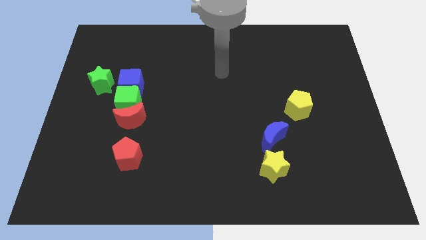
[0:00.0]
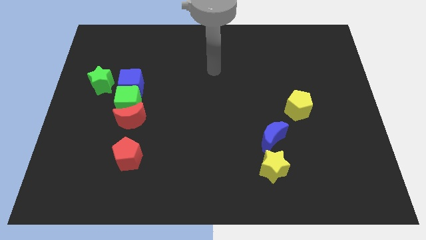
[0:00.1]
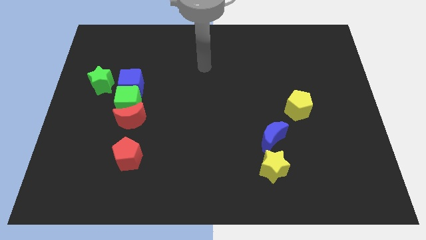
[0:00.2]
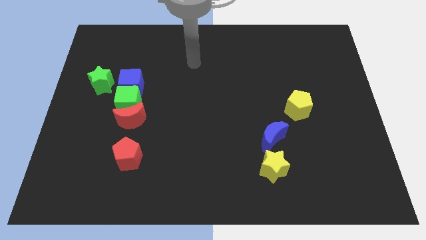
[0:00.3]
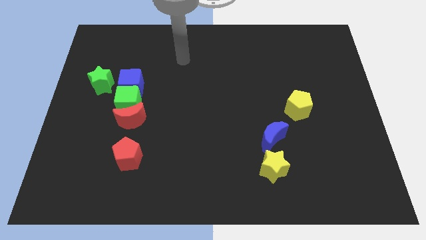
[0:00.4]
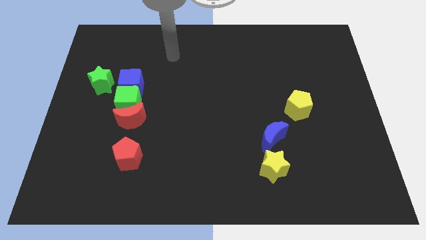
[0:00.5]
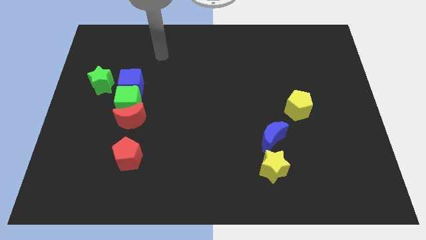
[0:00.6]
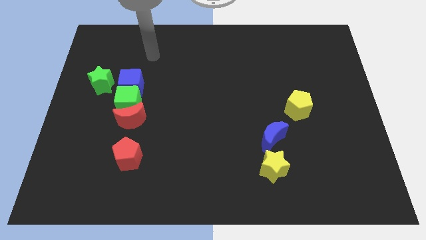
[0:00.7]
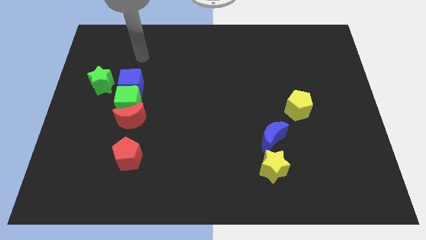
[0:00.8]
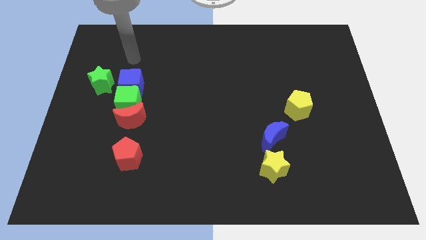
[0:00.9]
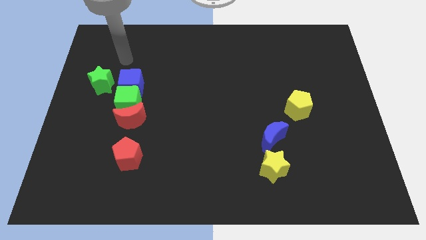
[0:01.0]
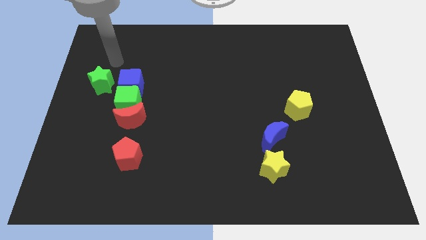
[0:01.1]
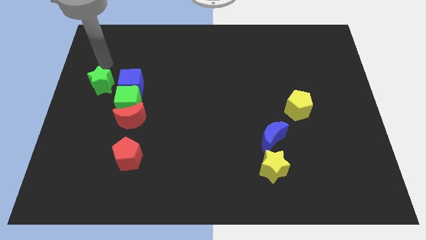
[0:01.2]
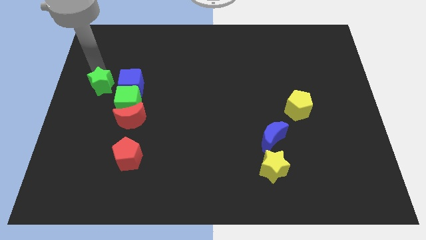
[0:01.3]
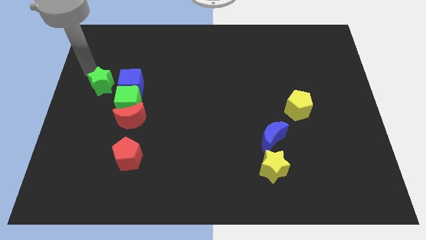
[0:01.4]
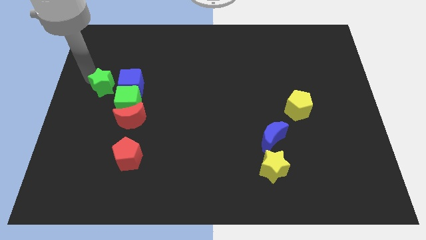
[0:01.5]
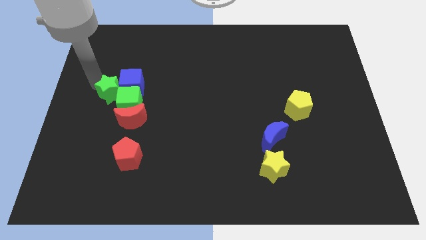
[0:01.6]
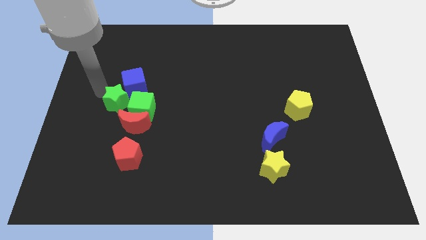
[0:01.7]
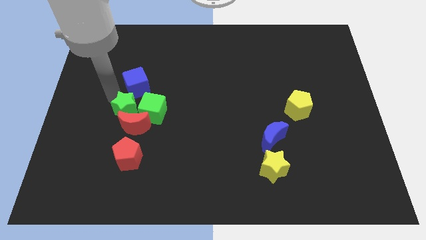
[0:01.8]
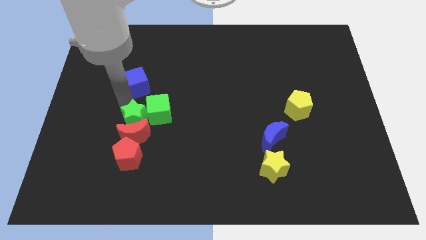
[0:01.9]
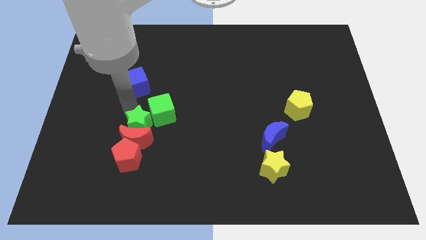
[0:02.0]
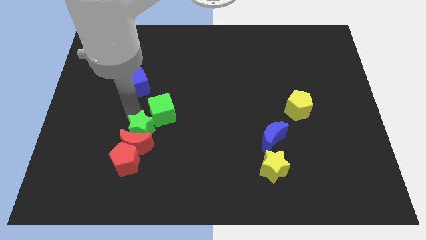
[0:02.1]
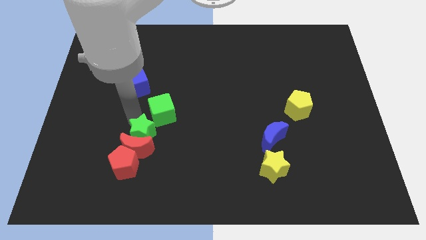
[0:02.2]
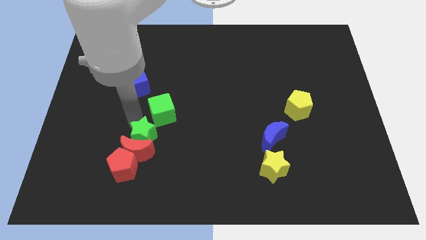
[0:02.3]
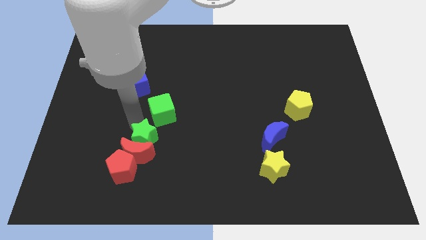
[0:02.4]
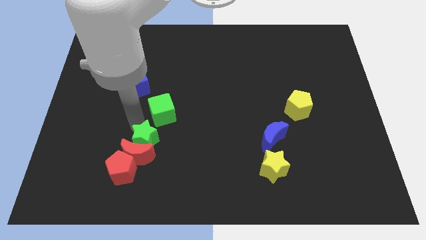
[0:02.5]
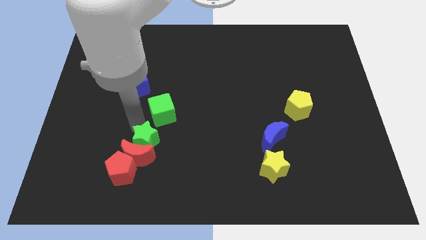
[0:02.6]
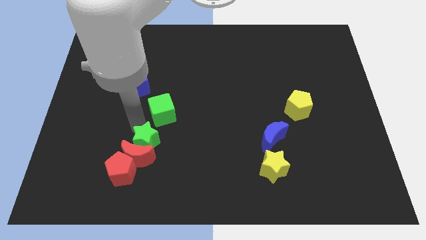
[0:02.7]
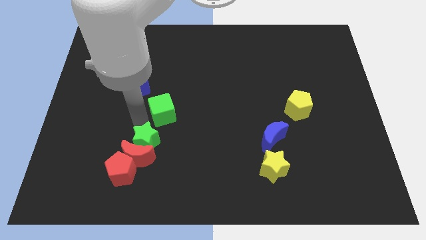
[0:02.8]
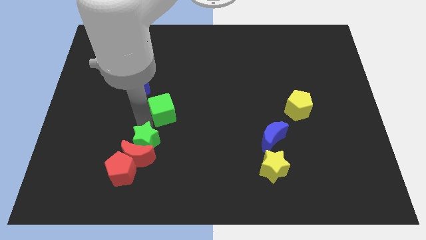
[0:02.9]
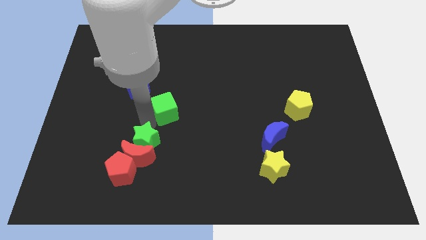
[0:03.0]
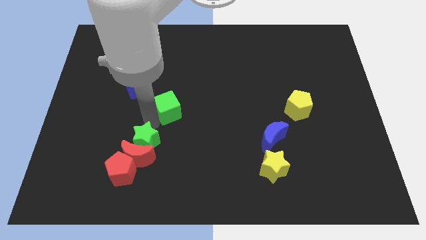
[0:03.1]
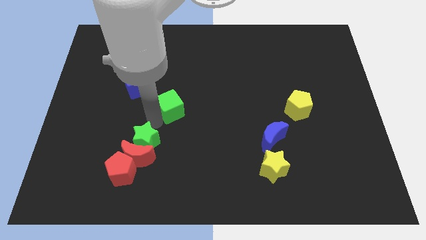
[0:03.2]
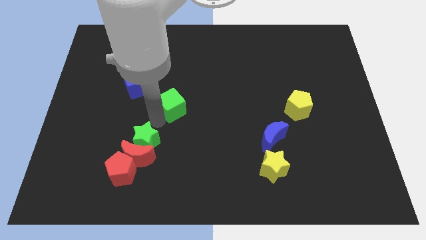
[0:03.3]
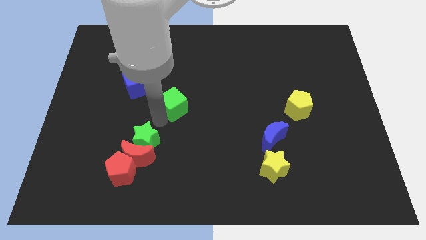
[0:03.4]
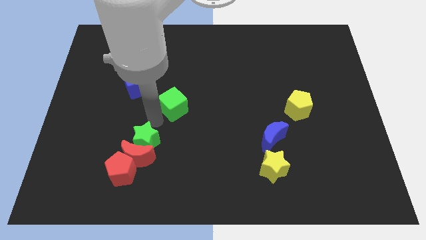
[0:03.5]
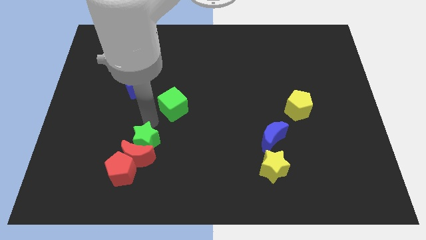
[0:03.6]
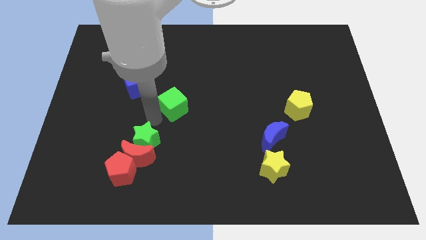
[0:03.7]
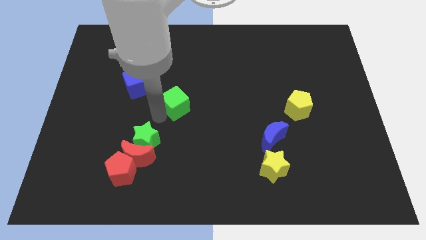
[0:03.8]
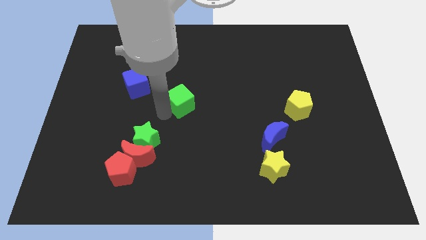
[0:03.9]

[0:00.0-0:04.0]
separate the green cube from the clump

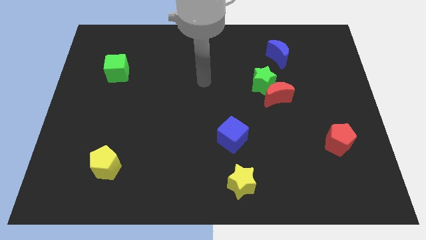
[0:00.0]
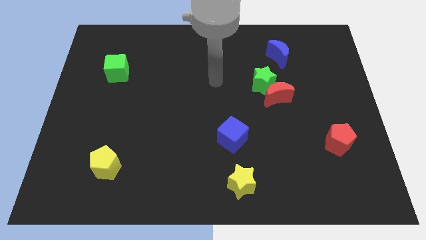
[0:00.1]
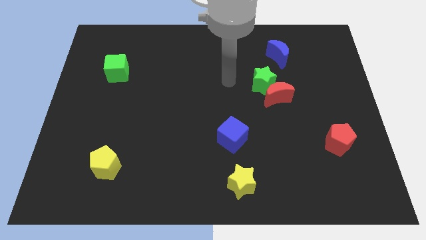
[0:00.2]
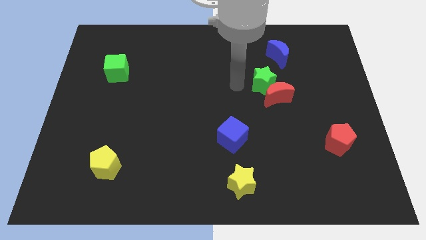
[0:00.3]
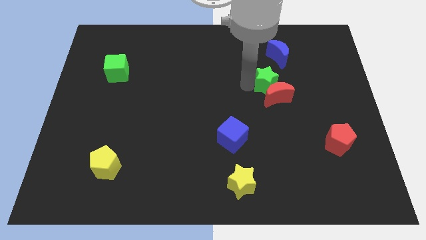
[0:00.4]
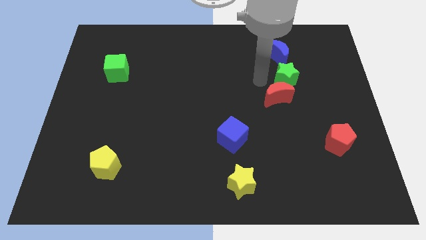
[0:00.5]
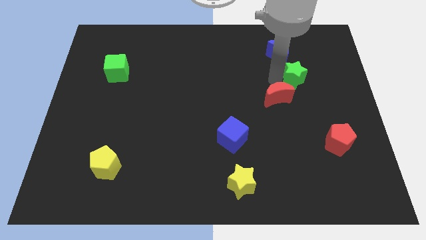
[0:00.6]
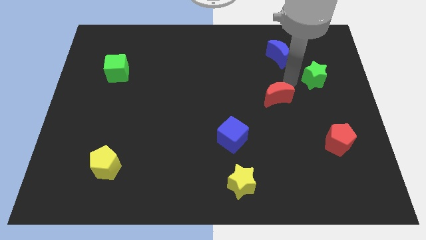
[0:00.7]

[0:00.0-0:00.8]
move the red moon away from the green star

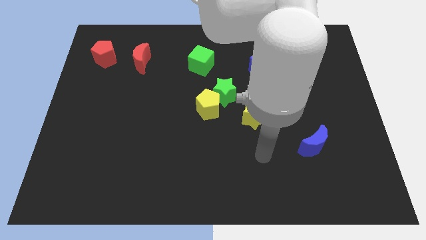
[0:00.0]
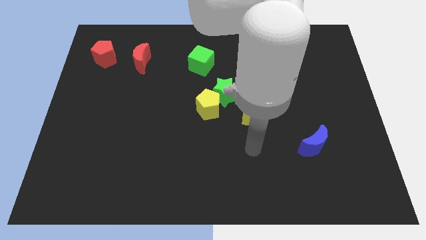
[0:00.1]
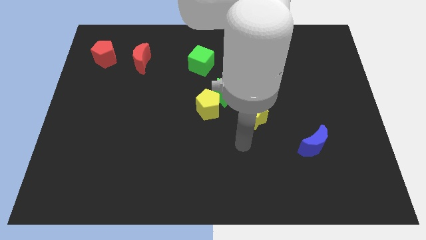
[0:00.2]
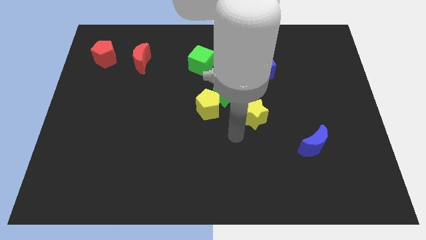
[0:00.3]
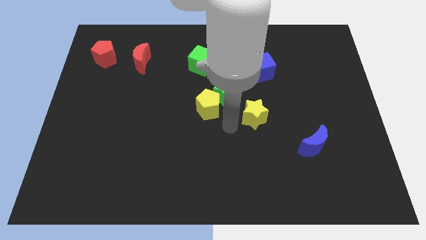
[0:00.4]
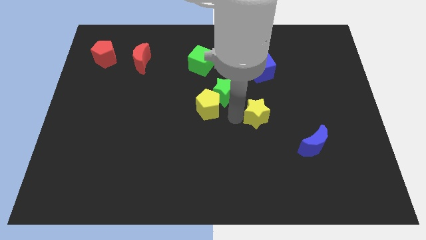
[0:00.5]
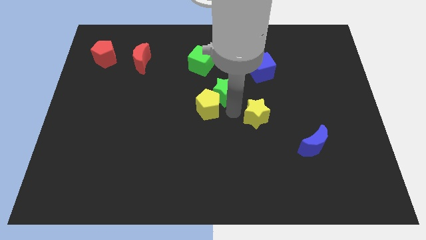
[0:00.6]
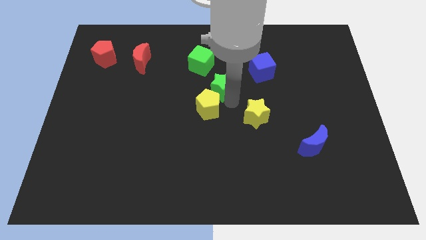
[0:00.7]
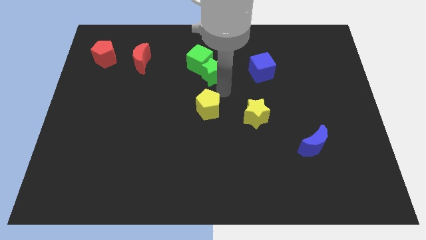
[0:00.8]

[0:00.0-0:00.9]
move the yellow pentagon away from the green star

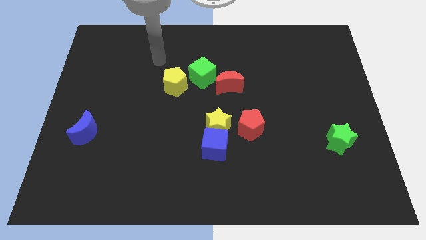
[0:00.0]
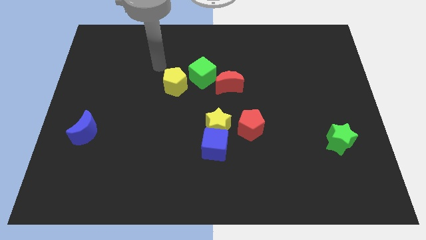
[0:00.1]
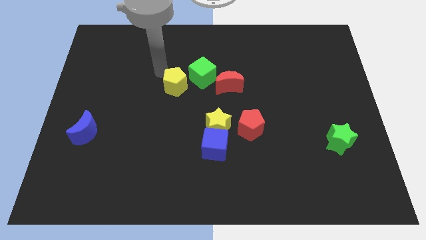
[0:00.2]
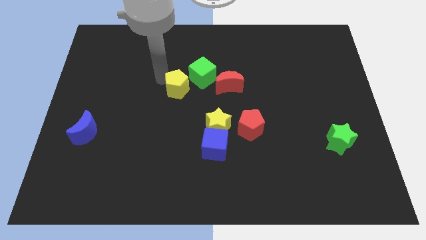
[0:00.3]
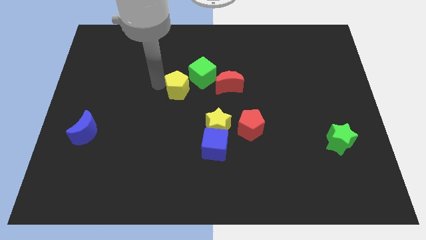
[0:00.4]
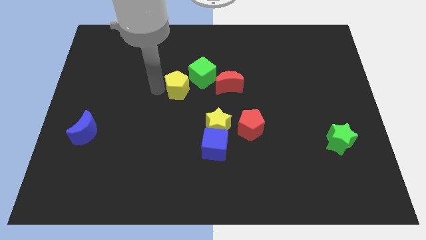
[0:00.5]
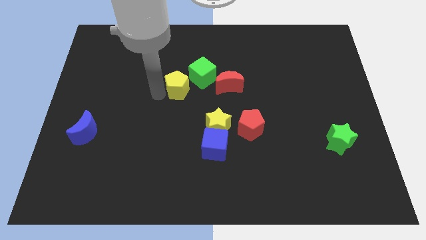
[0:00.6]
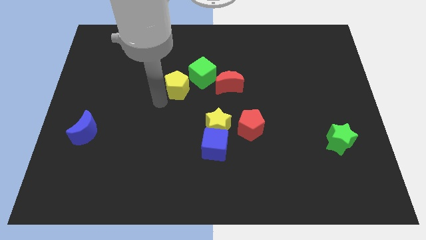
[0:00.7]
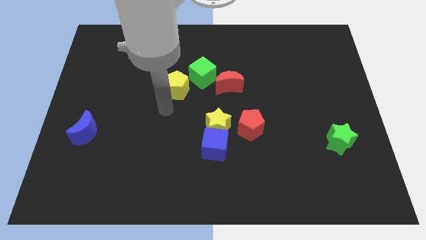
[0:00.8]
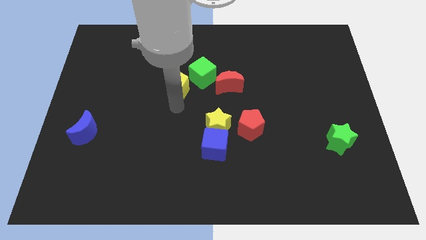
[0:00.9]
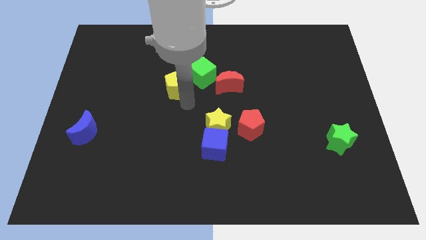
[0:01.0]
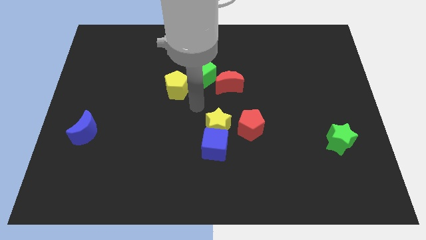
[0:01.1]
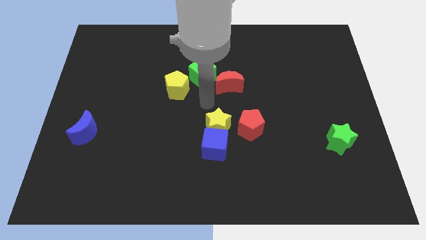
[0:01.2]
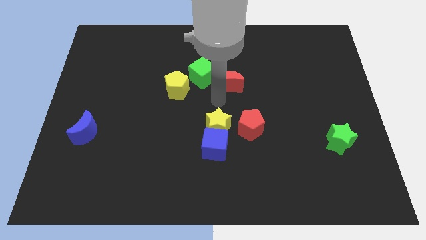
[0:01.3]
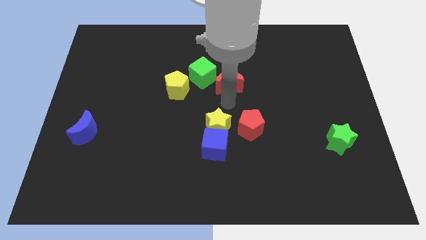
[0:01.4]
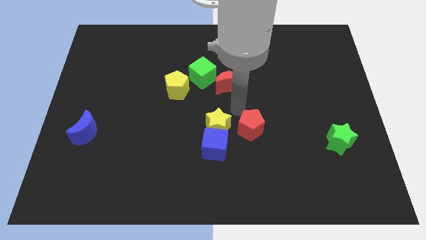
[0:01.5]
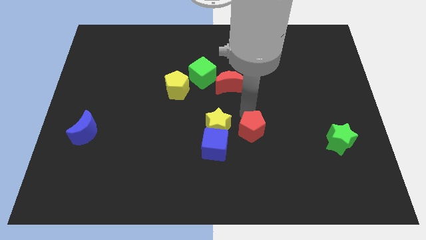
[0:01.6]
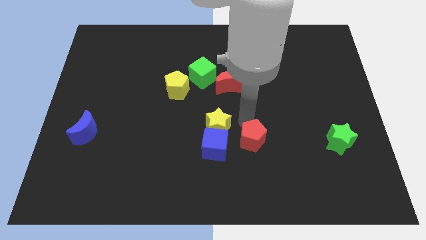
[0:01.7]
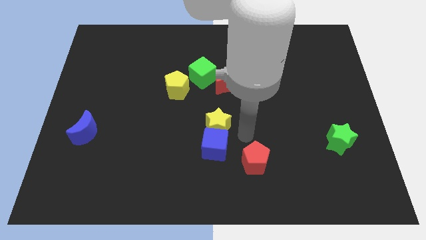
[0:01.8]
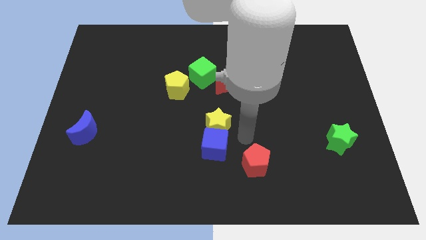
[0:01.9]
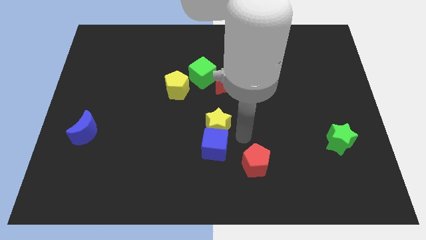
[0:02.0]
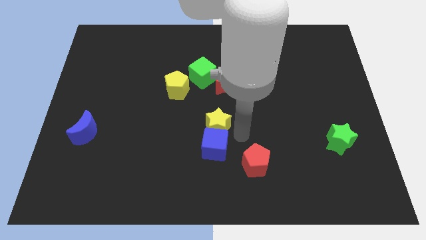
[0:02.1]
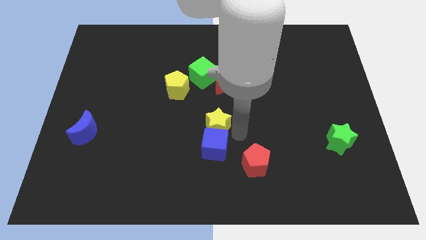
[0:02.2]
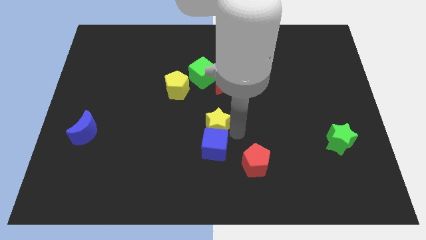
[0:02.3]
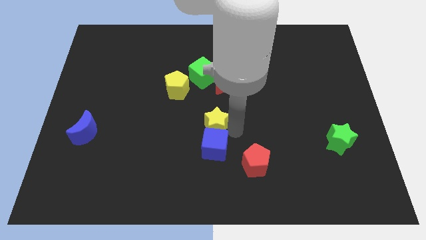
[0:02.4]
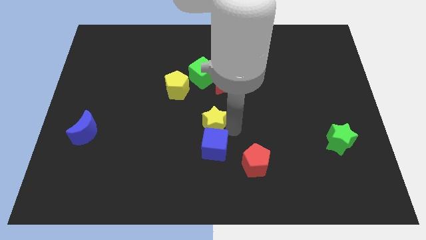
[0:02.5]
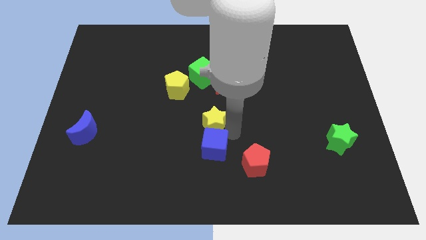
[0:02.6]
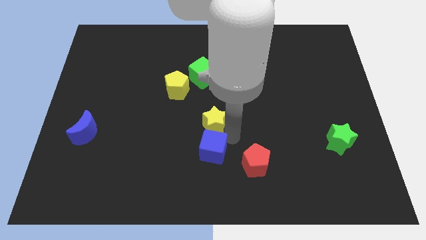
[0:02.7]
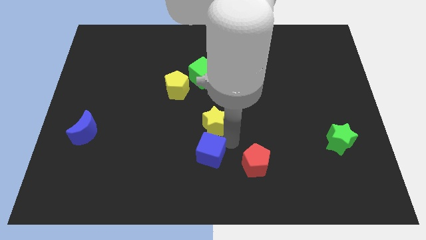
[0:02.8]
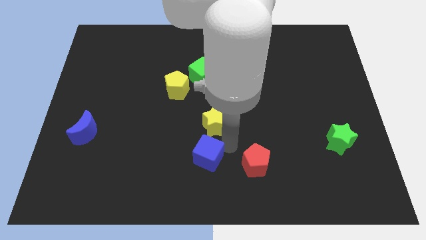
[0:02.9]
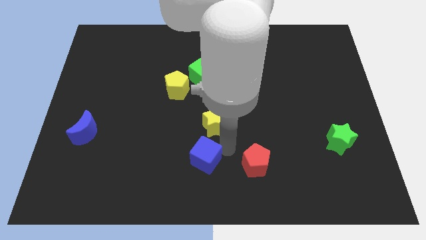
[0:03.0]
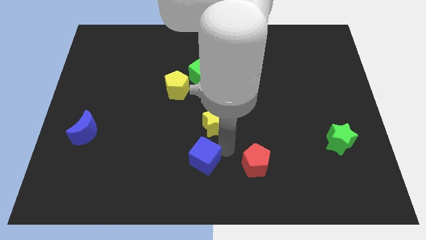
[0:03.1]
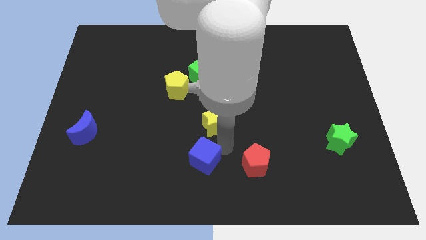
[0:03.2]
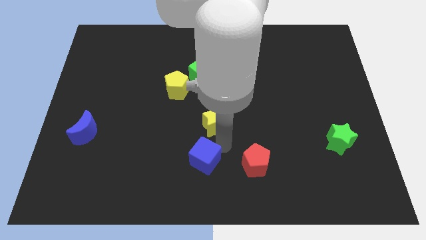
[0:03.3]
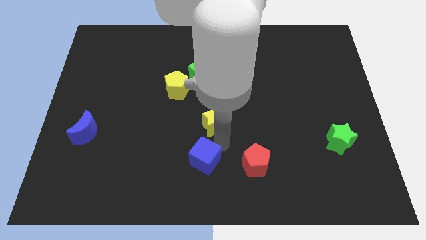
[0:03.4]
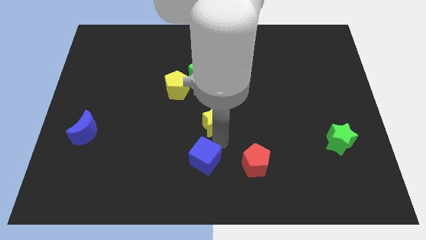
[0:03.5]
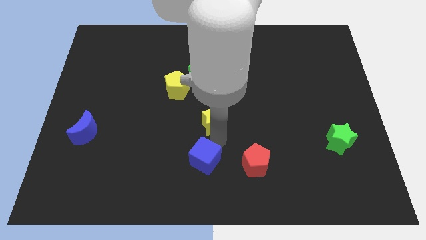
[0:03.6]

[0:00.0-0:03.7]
move the yellow star away from the blue cube and red pentagon
